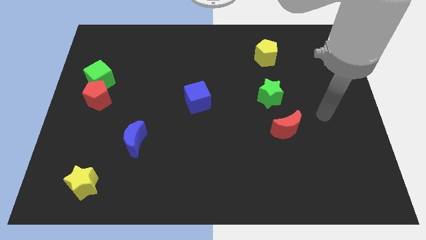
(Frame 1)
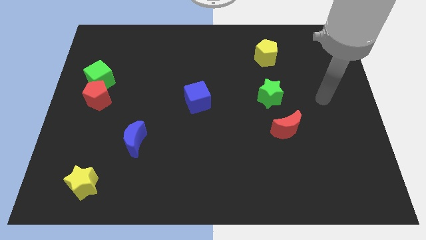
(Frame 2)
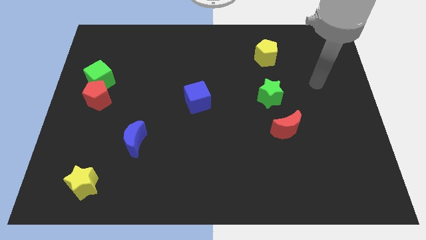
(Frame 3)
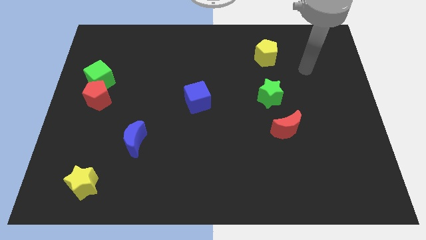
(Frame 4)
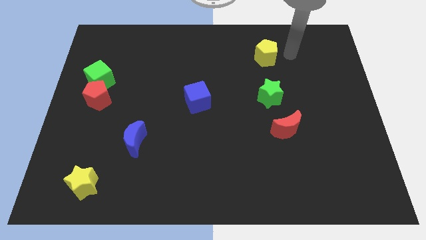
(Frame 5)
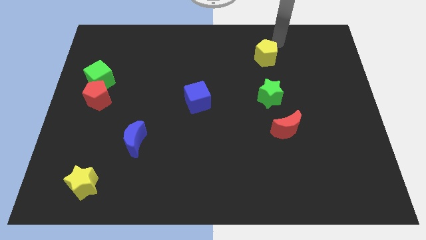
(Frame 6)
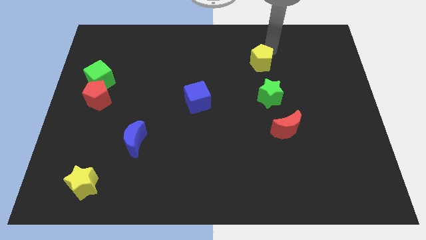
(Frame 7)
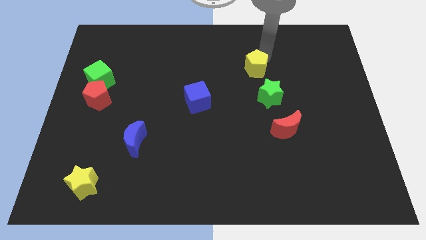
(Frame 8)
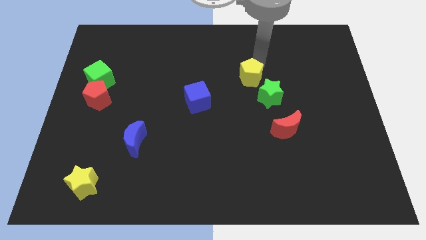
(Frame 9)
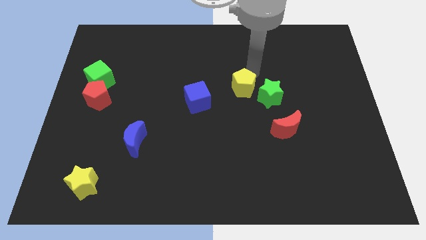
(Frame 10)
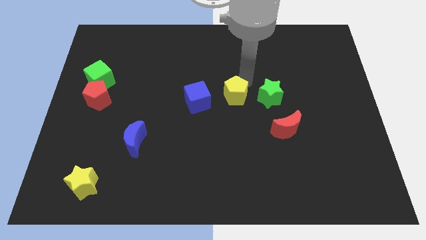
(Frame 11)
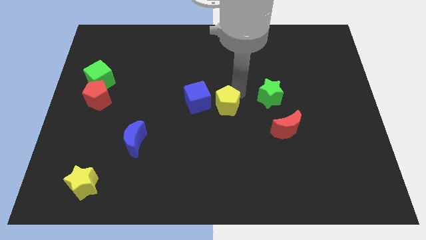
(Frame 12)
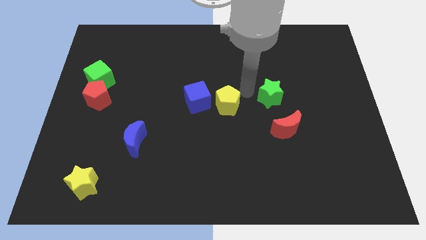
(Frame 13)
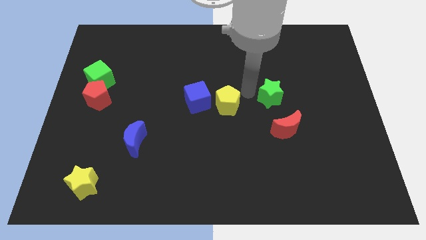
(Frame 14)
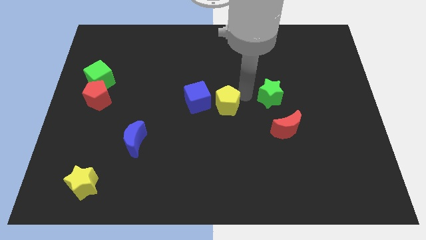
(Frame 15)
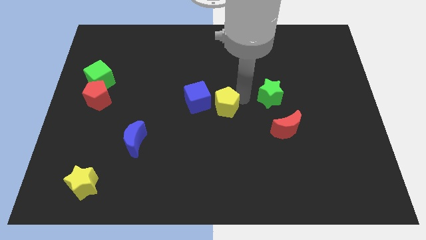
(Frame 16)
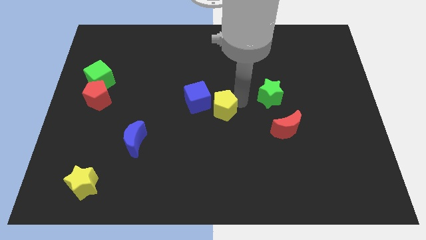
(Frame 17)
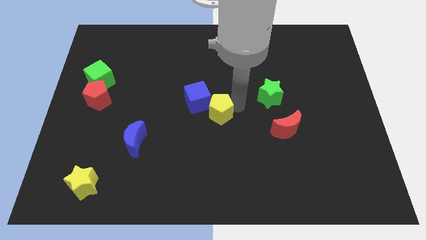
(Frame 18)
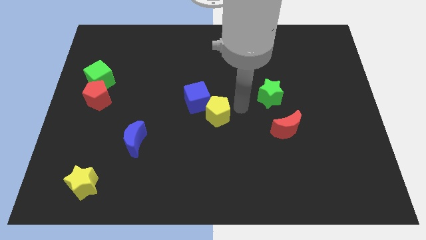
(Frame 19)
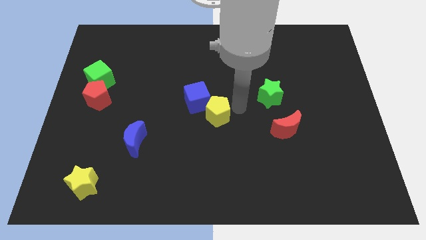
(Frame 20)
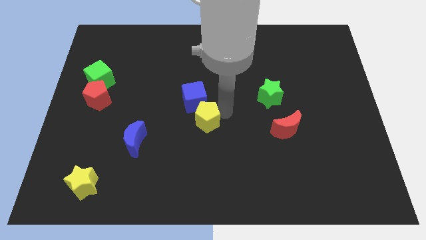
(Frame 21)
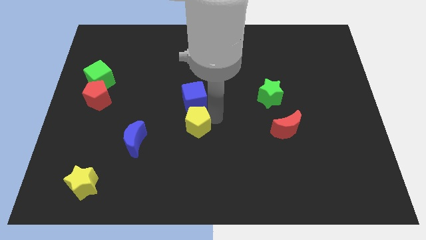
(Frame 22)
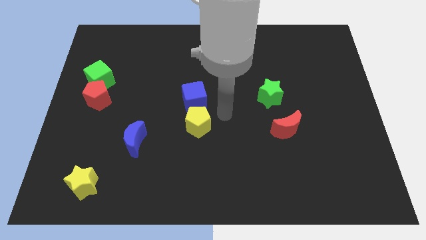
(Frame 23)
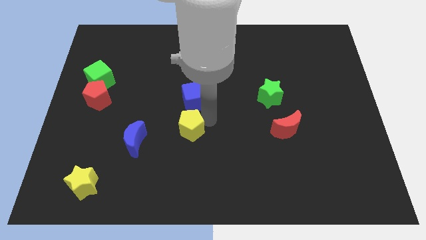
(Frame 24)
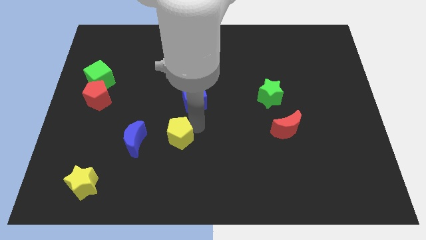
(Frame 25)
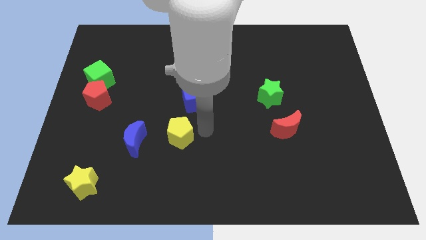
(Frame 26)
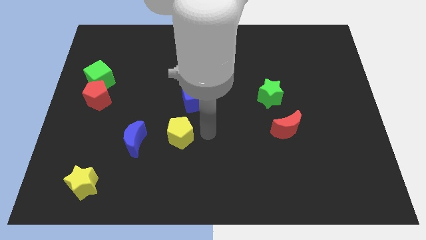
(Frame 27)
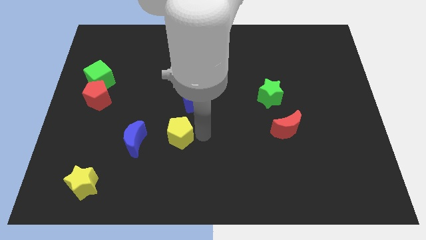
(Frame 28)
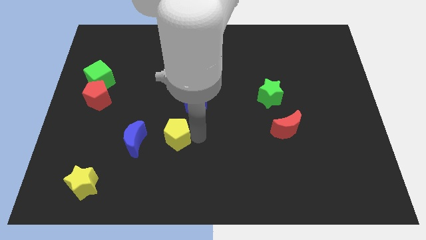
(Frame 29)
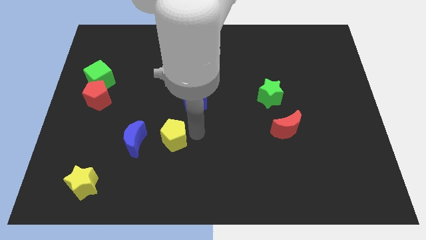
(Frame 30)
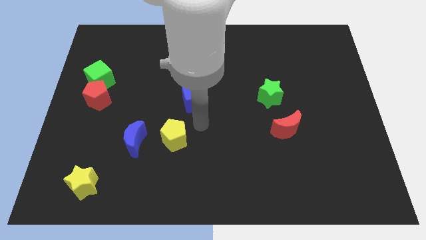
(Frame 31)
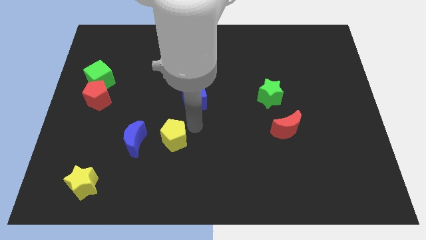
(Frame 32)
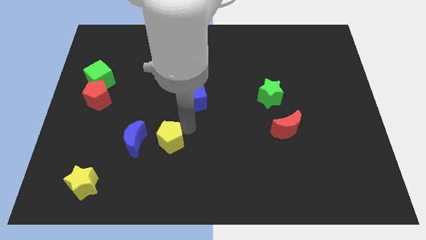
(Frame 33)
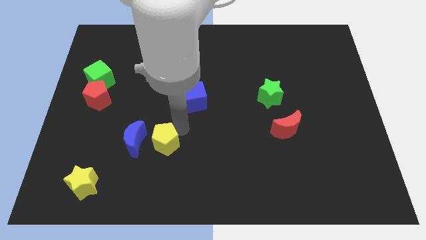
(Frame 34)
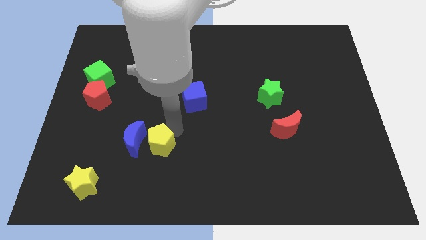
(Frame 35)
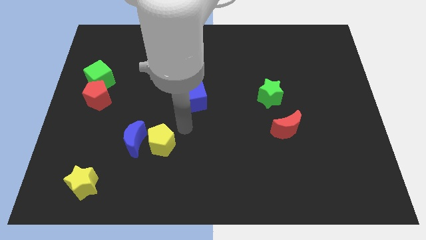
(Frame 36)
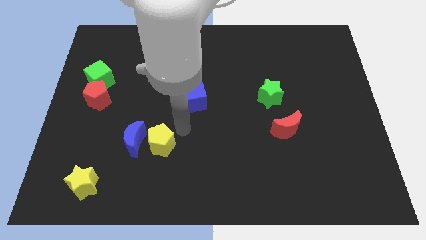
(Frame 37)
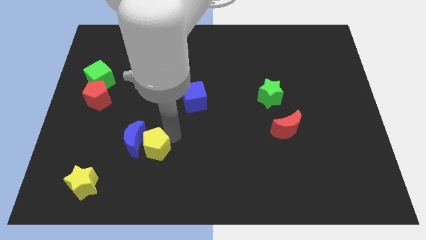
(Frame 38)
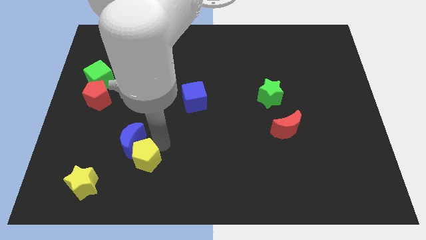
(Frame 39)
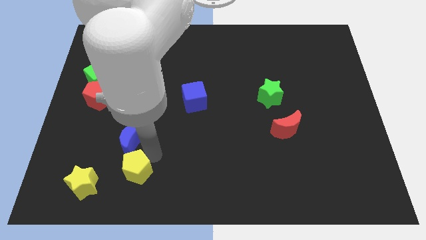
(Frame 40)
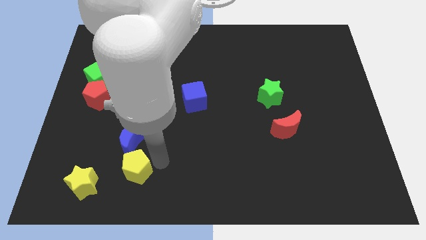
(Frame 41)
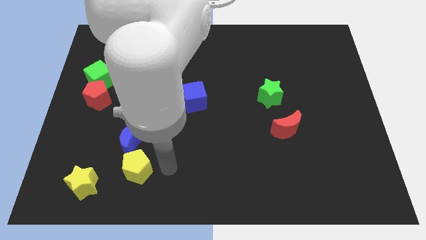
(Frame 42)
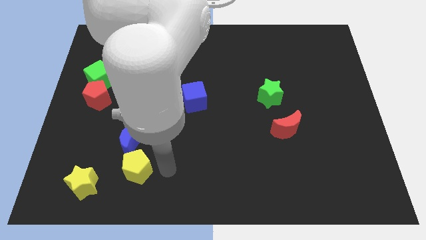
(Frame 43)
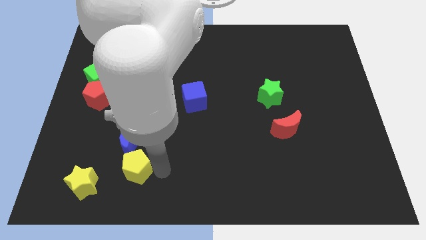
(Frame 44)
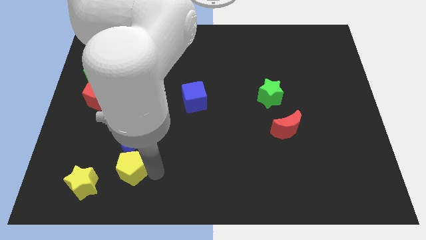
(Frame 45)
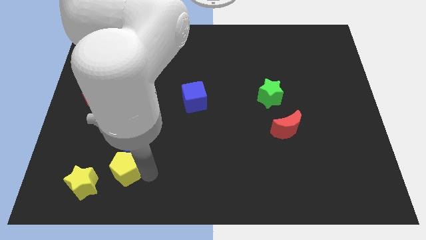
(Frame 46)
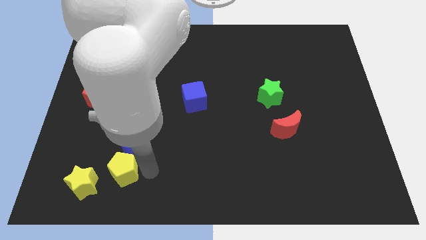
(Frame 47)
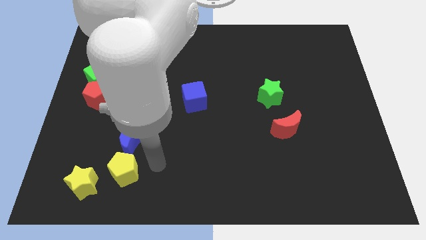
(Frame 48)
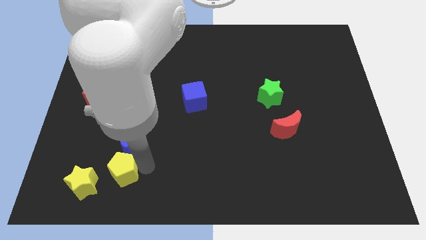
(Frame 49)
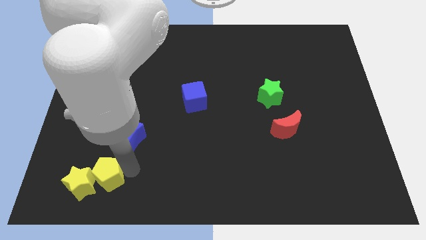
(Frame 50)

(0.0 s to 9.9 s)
put the yellow pentagon close to the yellow star

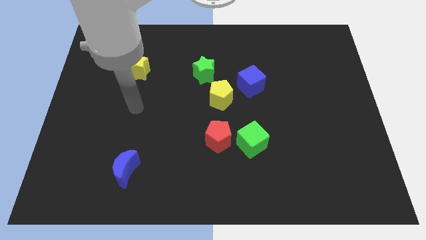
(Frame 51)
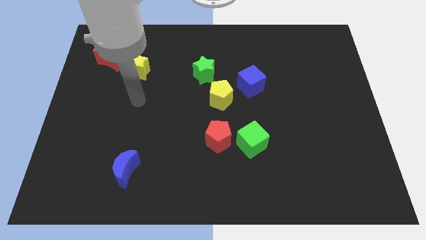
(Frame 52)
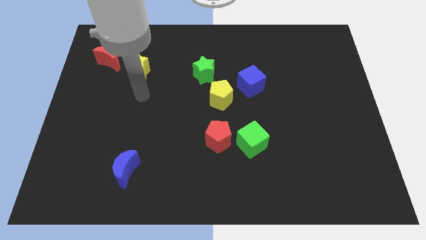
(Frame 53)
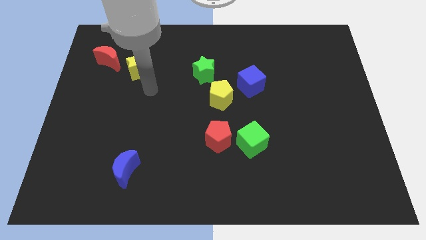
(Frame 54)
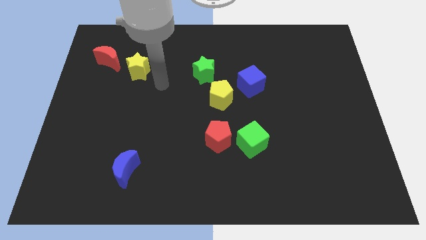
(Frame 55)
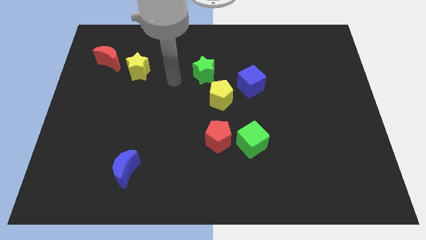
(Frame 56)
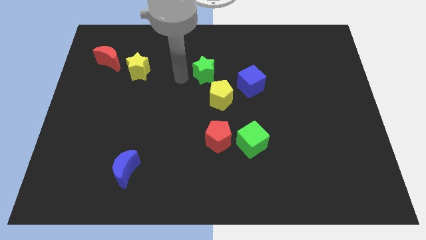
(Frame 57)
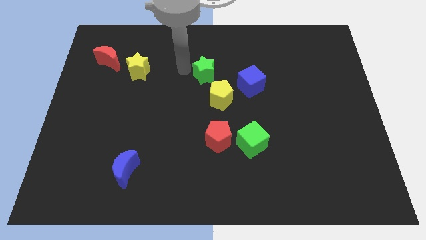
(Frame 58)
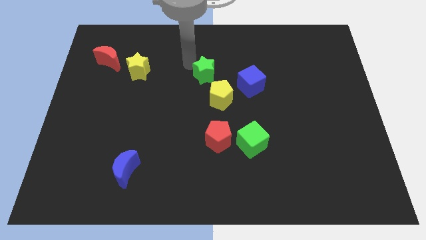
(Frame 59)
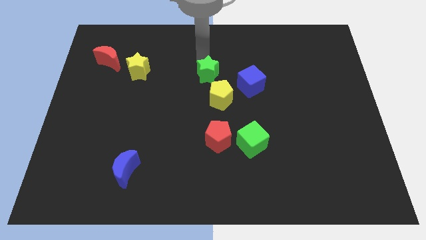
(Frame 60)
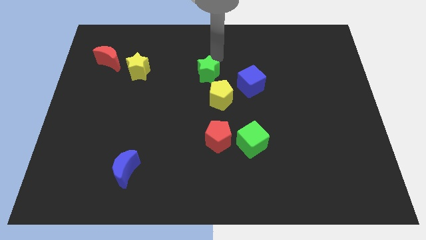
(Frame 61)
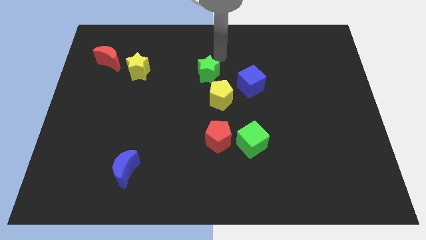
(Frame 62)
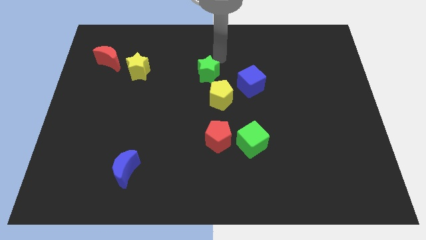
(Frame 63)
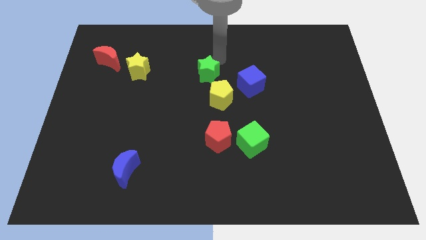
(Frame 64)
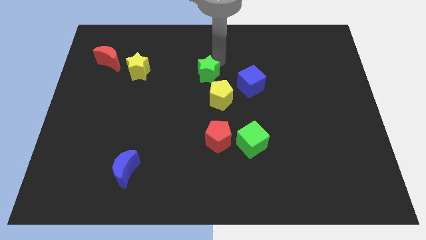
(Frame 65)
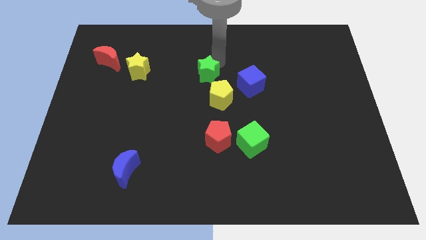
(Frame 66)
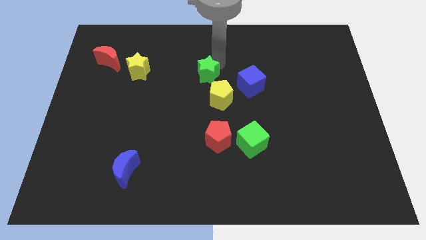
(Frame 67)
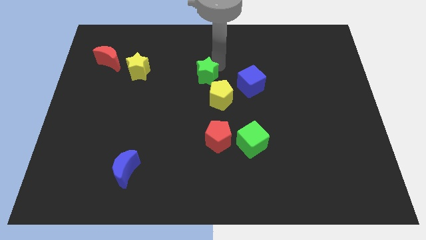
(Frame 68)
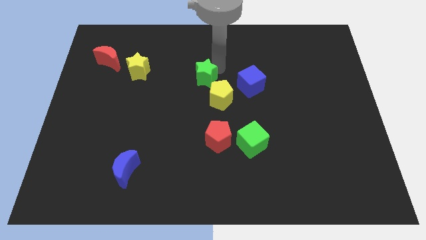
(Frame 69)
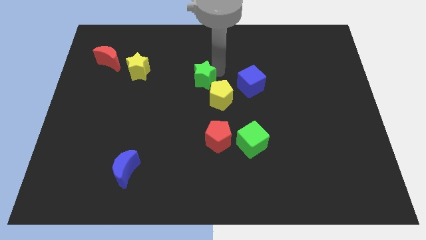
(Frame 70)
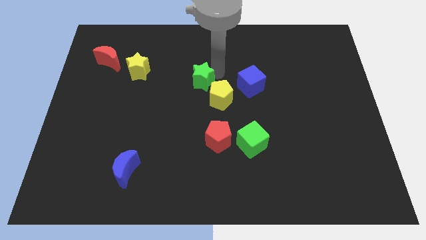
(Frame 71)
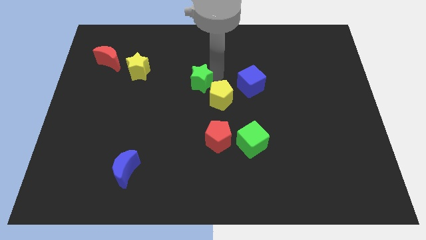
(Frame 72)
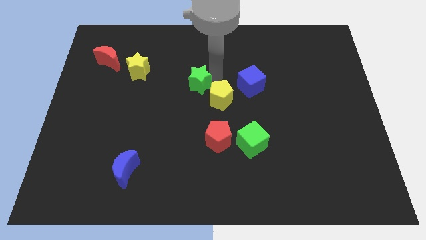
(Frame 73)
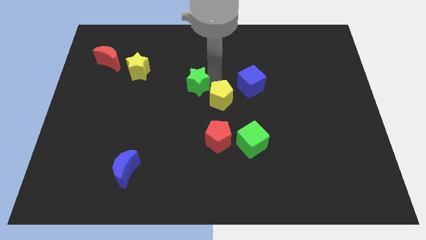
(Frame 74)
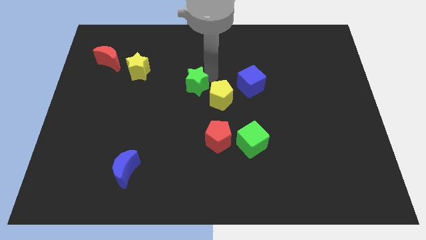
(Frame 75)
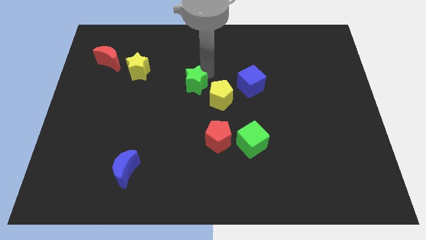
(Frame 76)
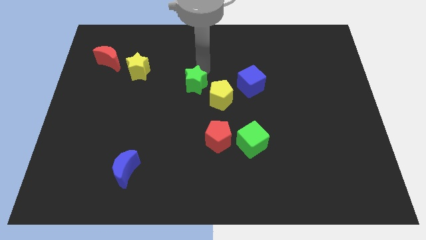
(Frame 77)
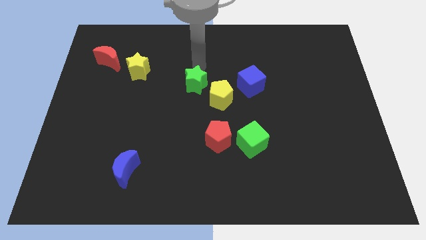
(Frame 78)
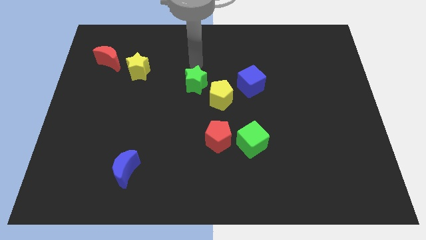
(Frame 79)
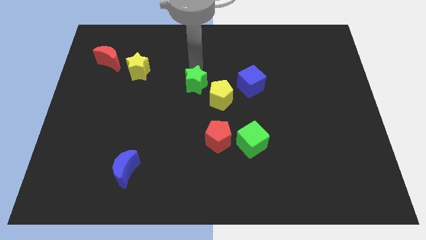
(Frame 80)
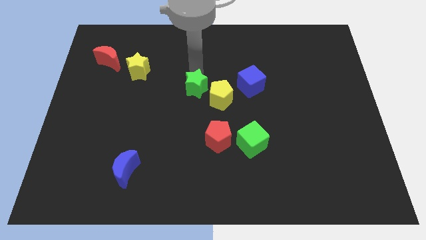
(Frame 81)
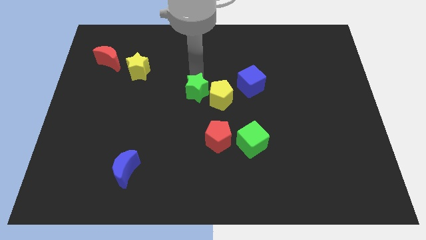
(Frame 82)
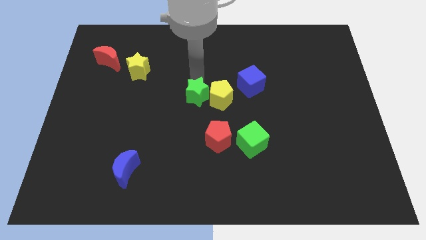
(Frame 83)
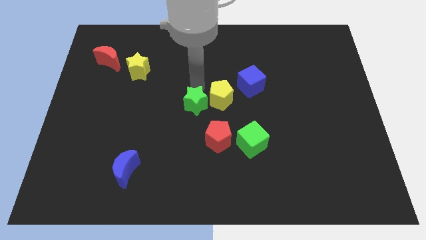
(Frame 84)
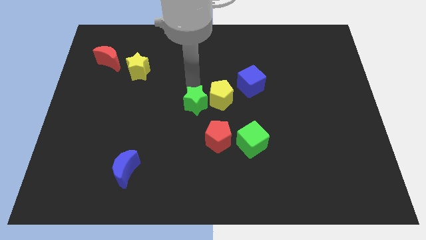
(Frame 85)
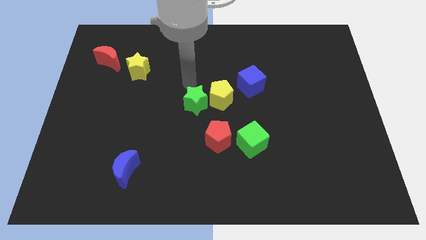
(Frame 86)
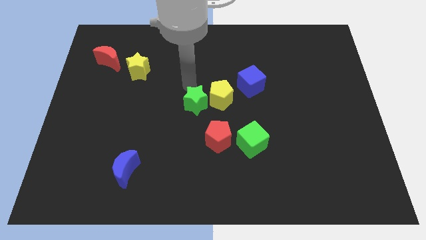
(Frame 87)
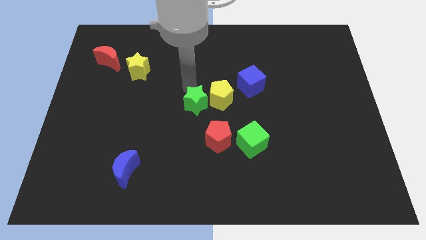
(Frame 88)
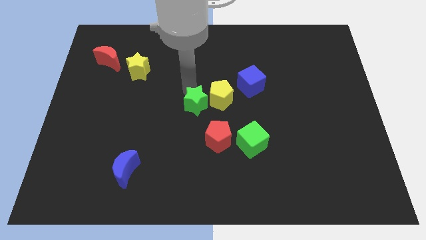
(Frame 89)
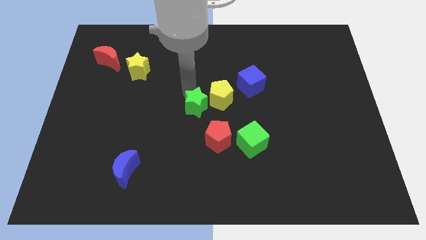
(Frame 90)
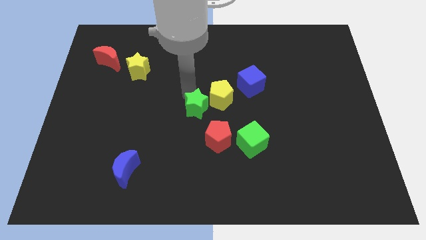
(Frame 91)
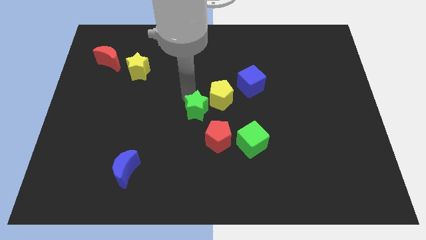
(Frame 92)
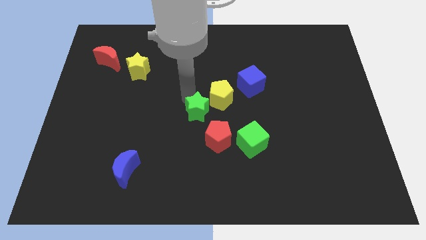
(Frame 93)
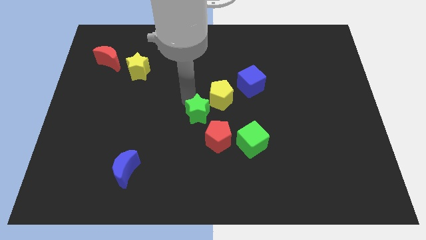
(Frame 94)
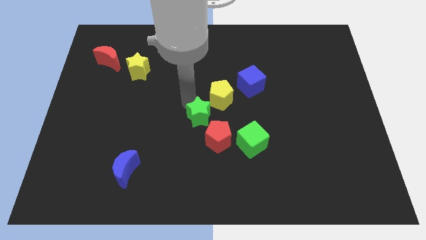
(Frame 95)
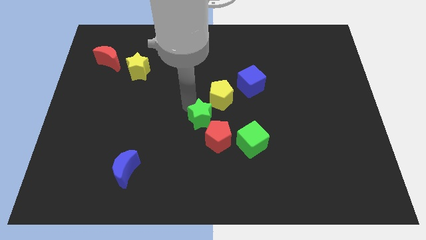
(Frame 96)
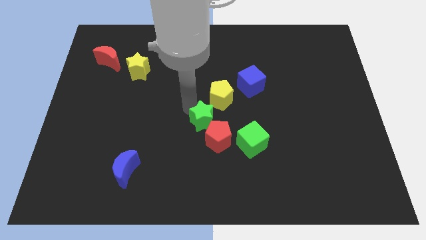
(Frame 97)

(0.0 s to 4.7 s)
move the green star towards the red pentagon
